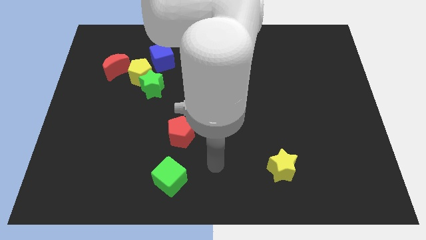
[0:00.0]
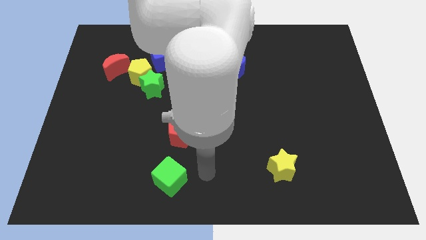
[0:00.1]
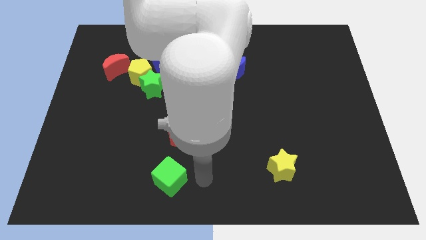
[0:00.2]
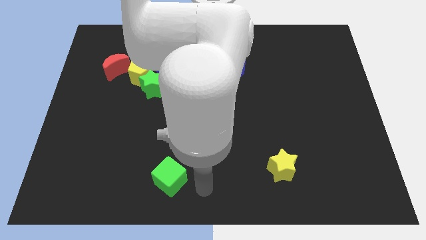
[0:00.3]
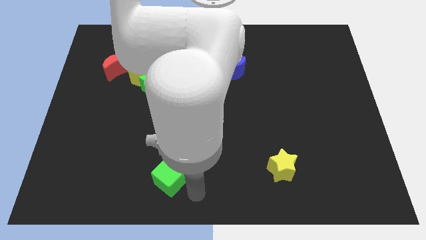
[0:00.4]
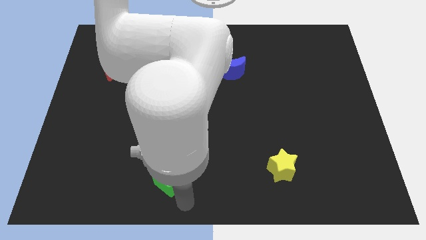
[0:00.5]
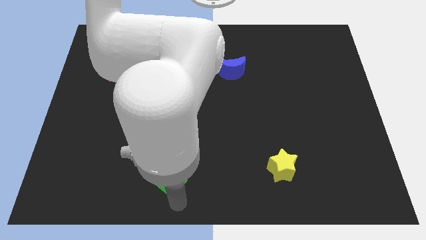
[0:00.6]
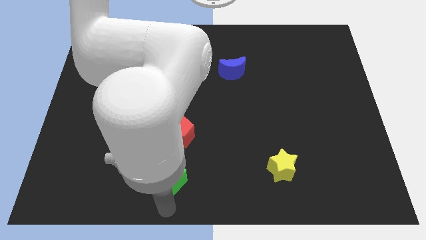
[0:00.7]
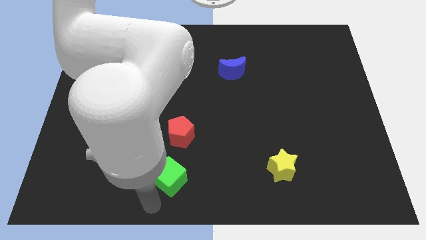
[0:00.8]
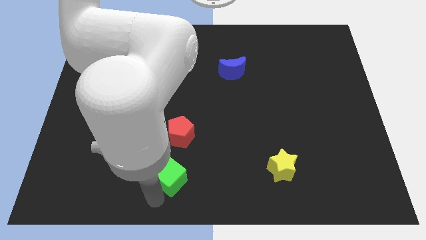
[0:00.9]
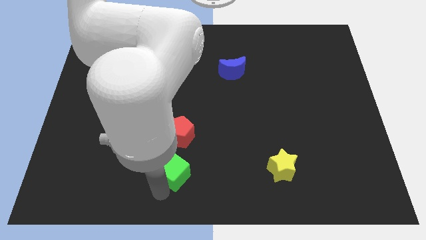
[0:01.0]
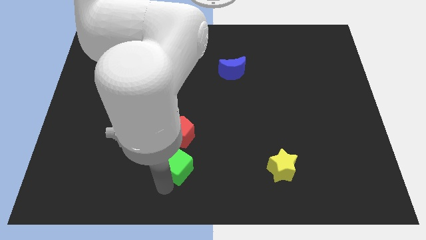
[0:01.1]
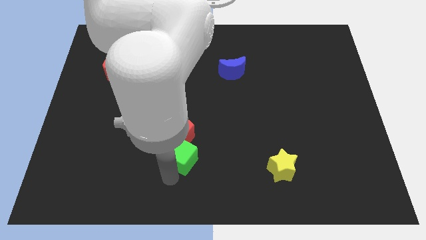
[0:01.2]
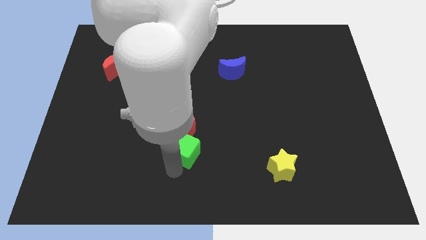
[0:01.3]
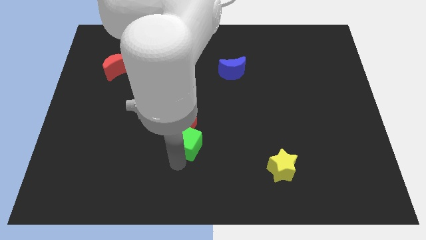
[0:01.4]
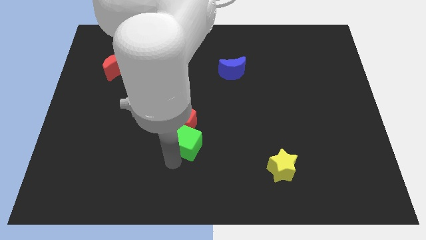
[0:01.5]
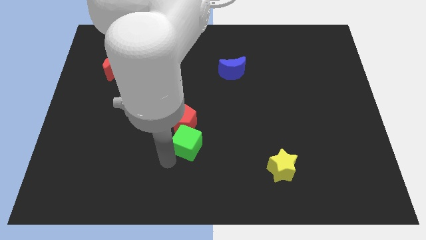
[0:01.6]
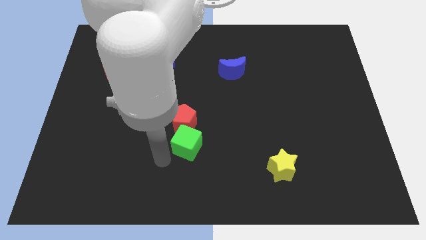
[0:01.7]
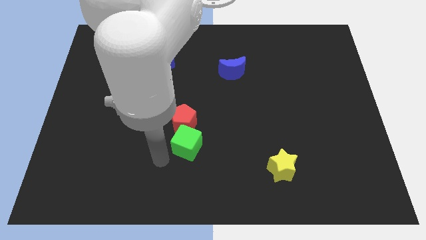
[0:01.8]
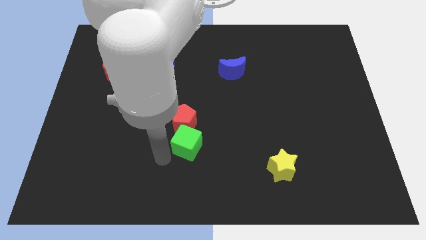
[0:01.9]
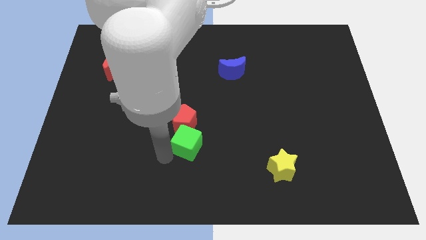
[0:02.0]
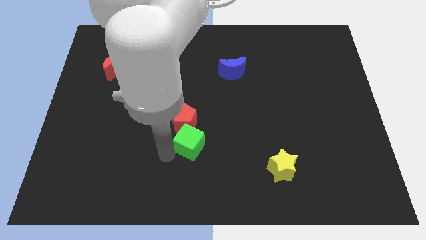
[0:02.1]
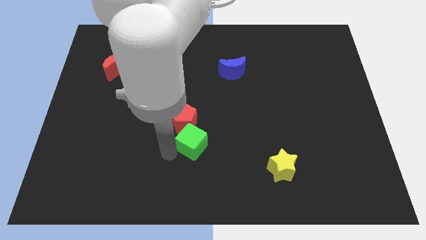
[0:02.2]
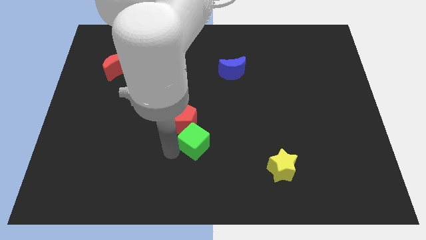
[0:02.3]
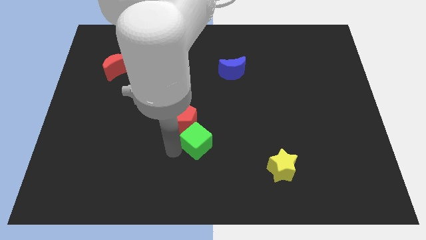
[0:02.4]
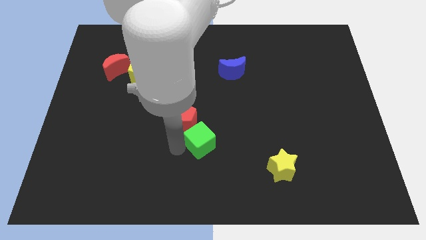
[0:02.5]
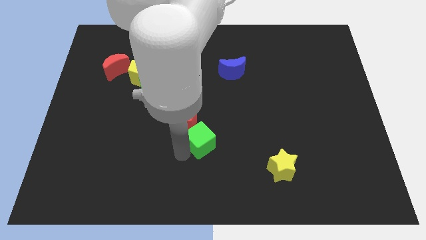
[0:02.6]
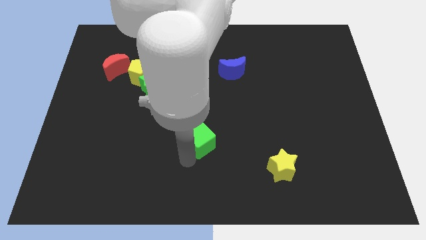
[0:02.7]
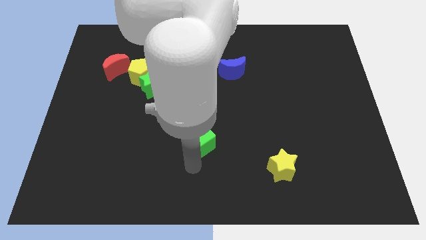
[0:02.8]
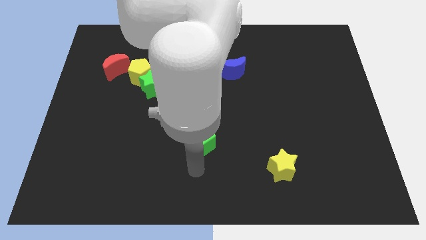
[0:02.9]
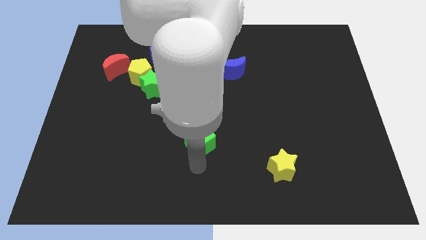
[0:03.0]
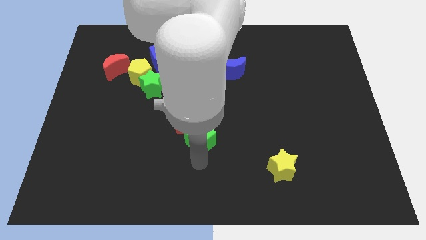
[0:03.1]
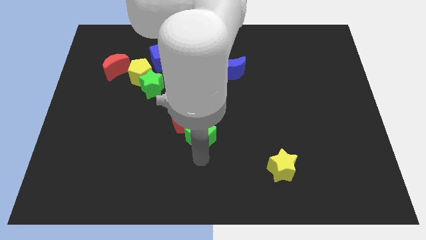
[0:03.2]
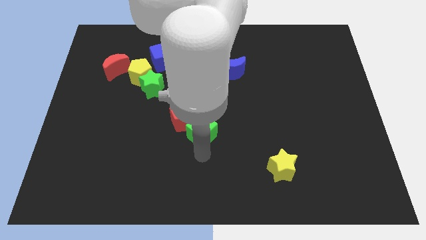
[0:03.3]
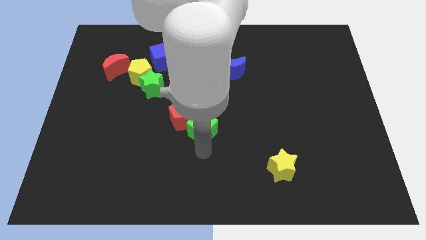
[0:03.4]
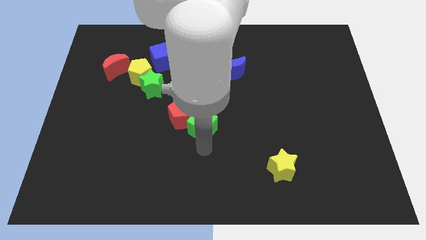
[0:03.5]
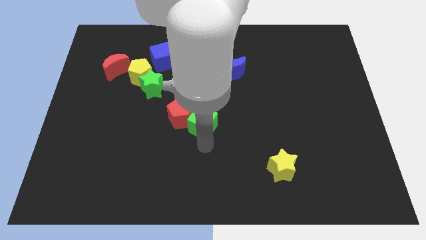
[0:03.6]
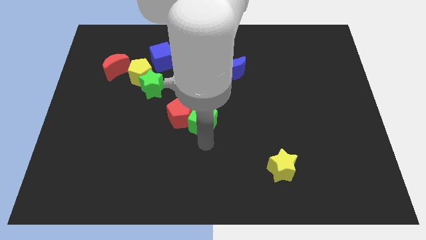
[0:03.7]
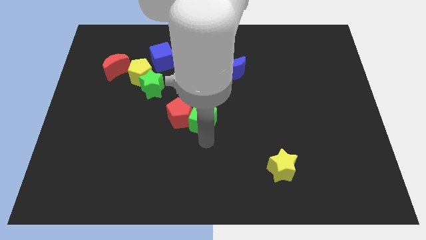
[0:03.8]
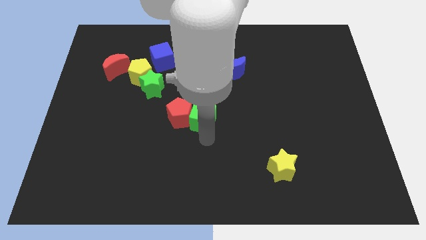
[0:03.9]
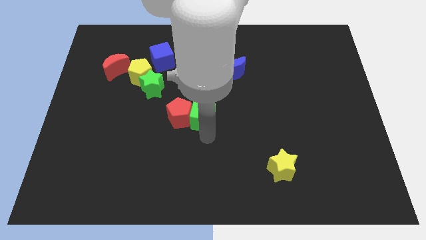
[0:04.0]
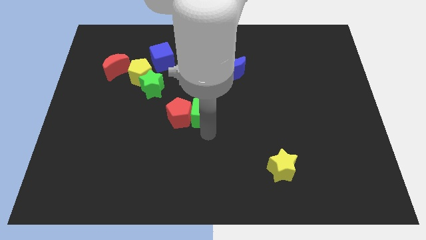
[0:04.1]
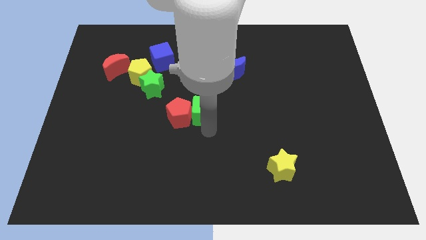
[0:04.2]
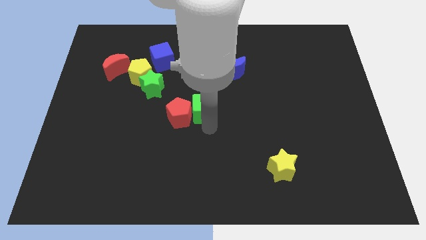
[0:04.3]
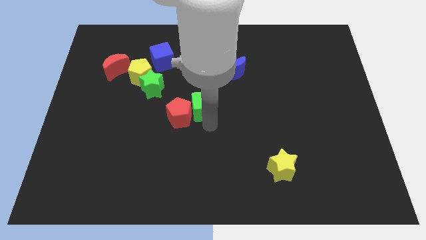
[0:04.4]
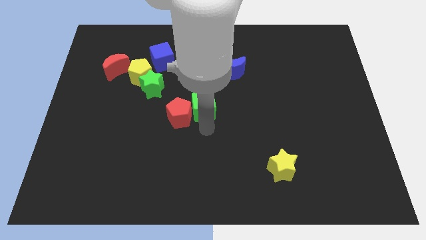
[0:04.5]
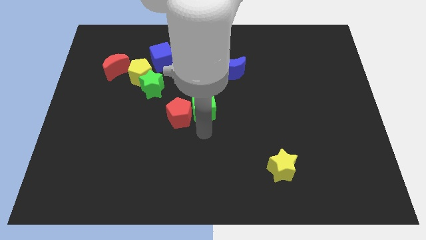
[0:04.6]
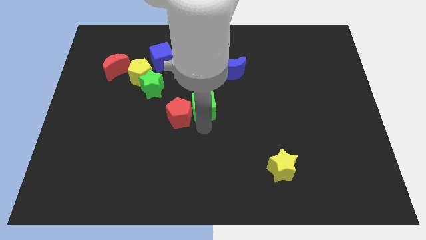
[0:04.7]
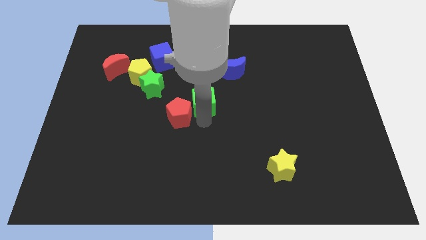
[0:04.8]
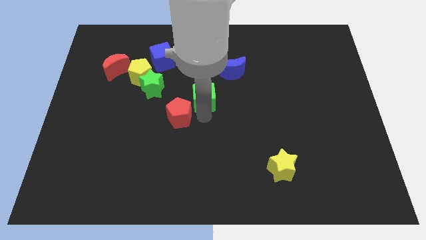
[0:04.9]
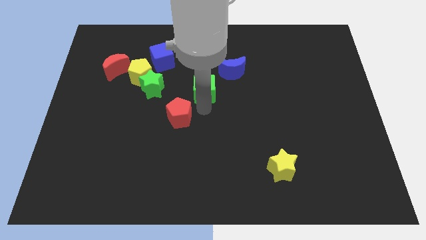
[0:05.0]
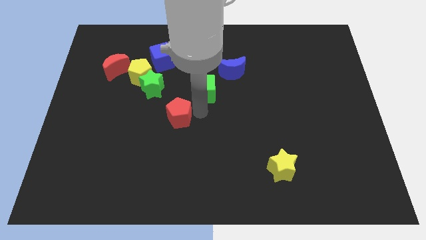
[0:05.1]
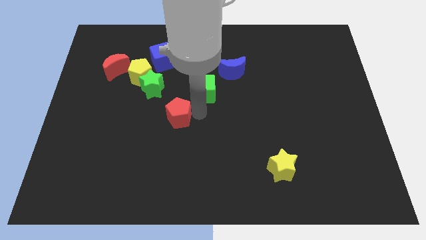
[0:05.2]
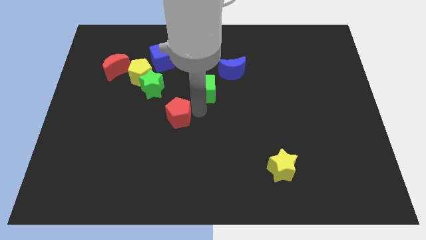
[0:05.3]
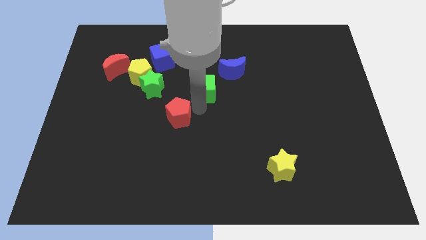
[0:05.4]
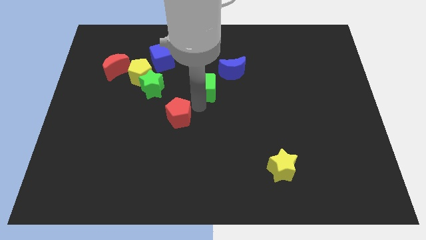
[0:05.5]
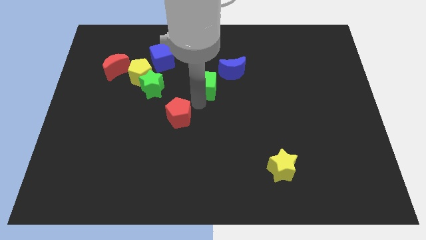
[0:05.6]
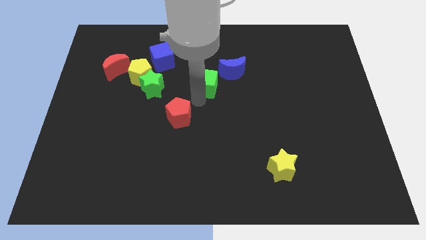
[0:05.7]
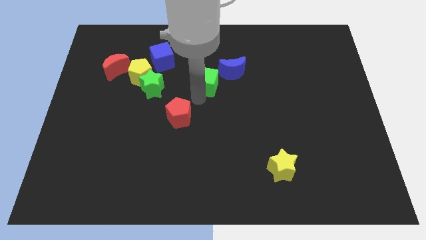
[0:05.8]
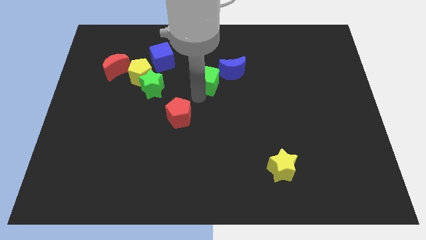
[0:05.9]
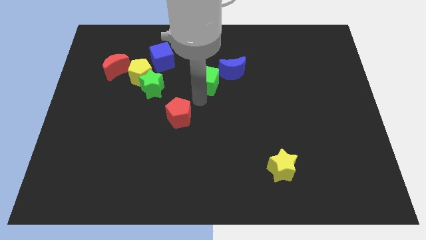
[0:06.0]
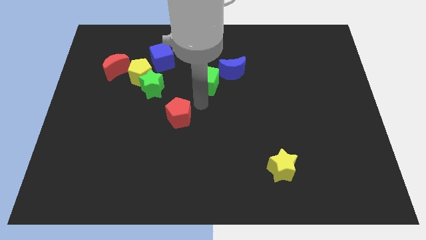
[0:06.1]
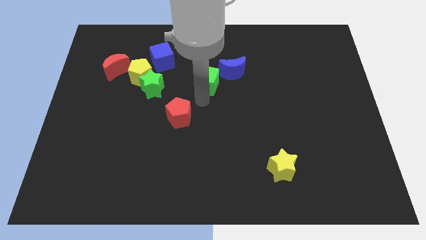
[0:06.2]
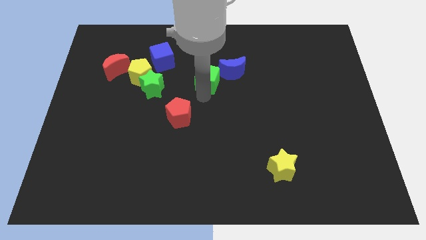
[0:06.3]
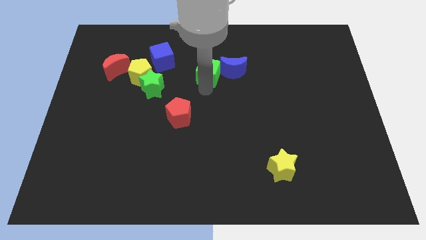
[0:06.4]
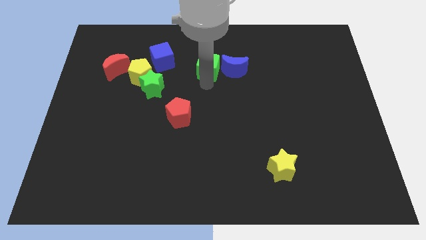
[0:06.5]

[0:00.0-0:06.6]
push the green cube diagonally up and to the left of the blue moon
